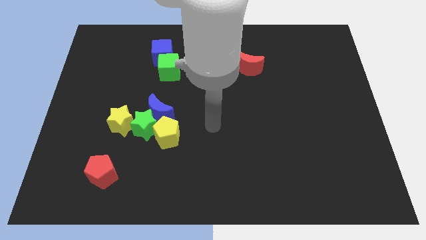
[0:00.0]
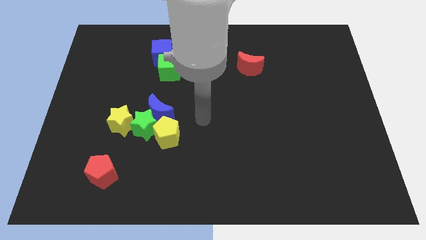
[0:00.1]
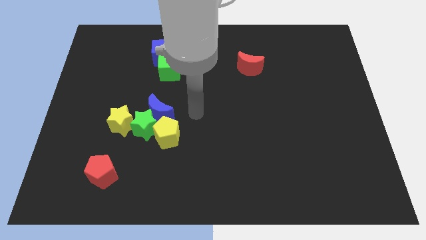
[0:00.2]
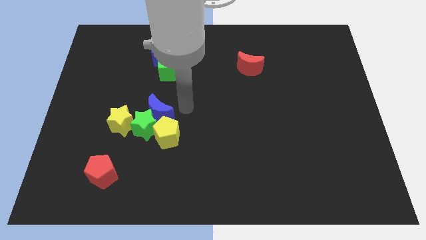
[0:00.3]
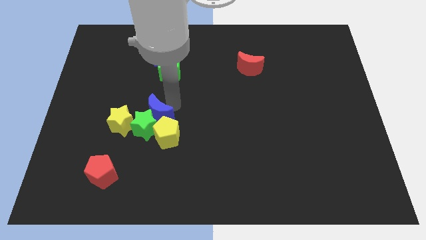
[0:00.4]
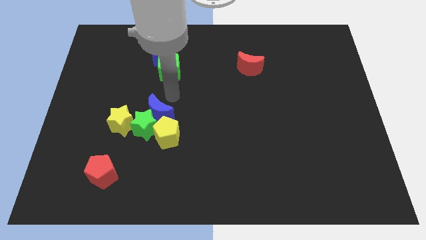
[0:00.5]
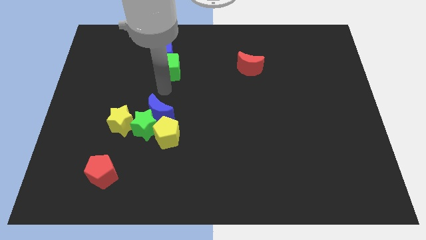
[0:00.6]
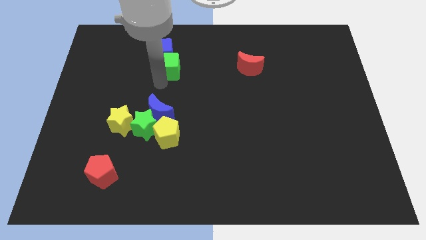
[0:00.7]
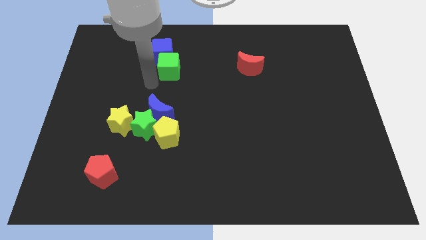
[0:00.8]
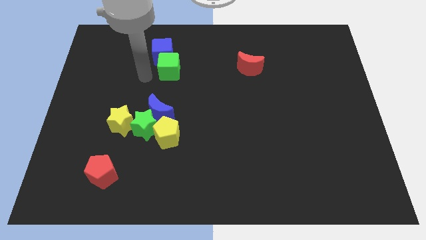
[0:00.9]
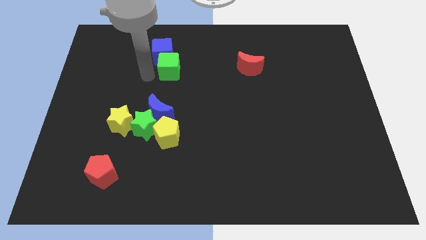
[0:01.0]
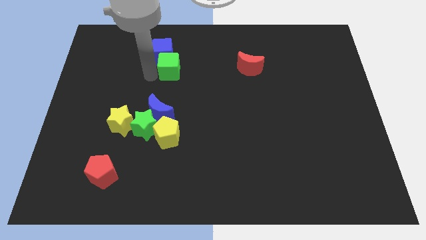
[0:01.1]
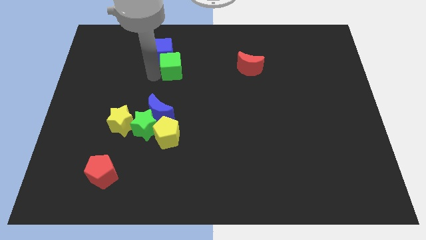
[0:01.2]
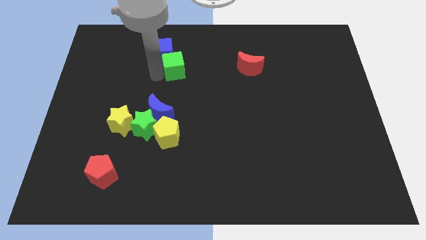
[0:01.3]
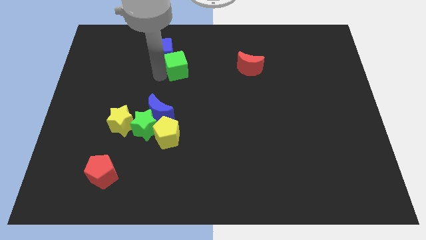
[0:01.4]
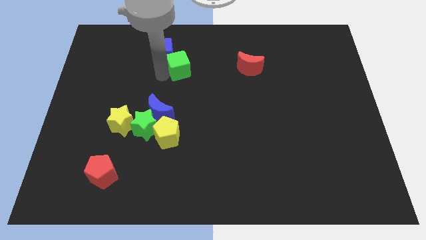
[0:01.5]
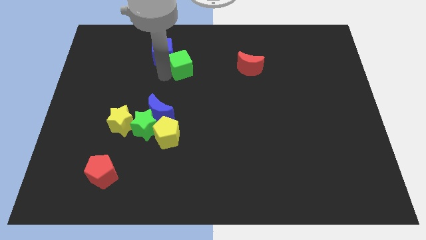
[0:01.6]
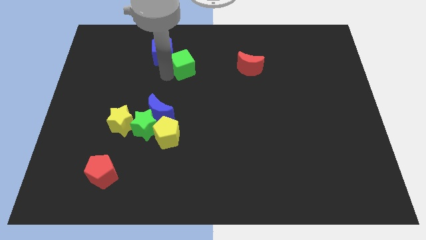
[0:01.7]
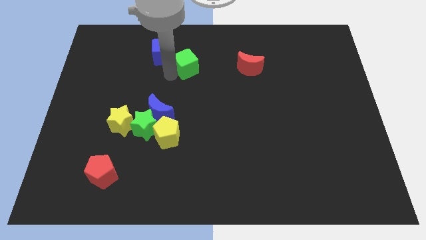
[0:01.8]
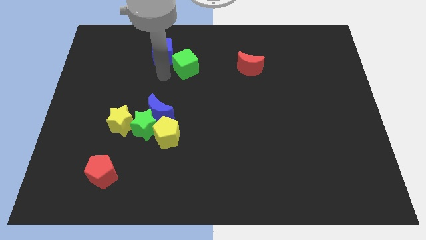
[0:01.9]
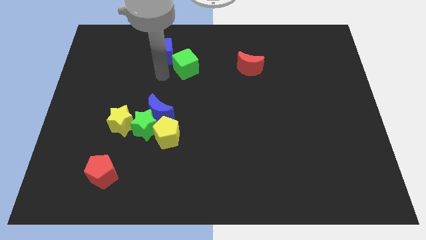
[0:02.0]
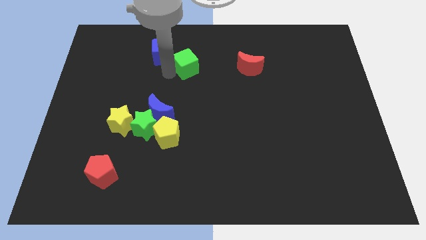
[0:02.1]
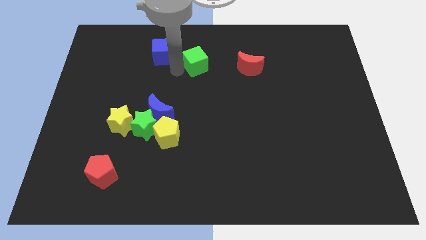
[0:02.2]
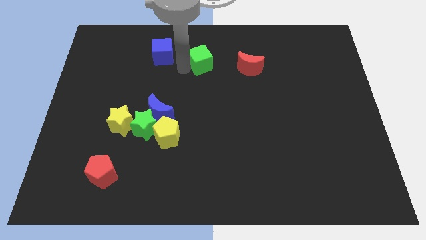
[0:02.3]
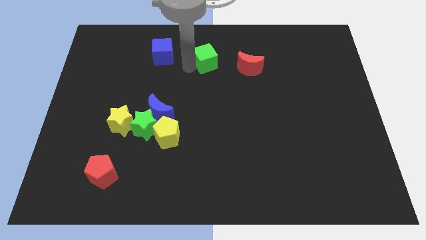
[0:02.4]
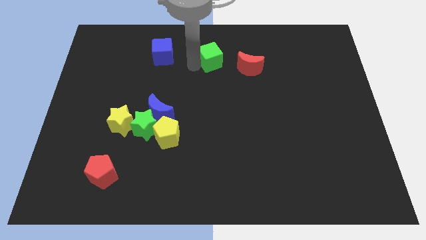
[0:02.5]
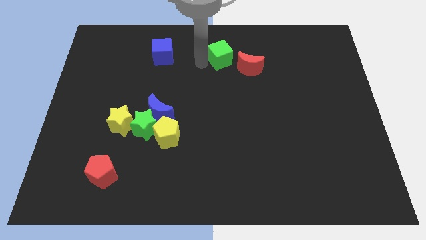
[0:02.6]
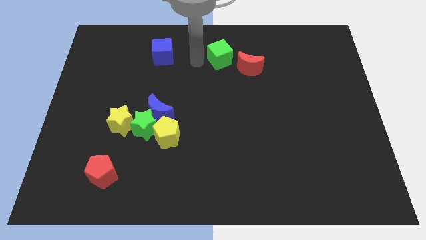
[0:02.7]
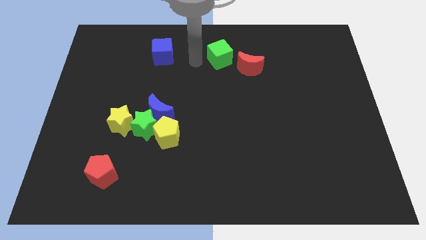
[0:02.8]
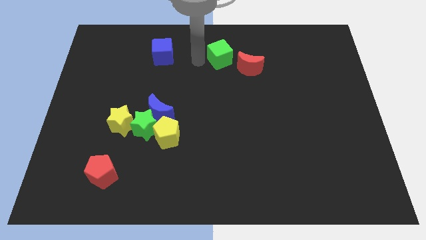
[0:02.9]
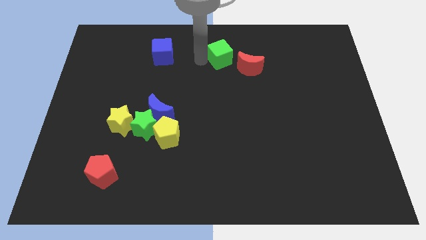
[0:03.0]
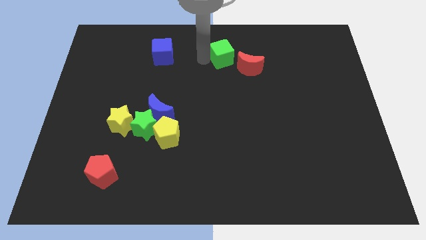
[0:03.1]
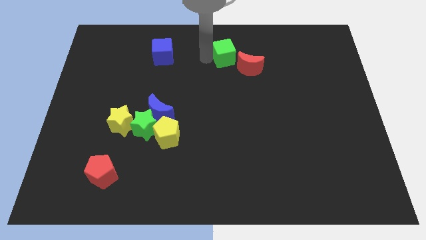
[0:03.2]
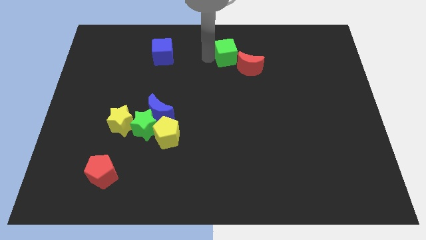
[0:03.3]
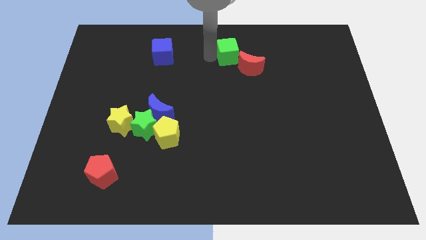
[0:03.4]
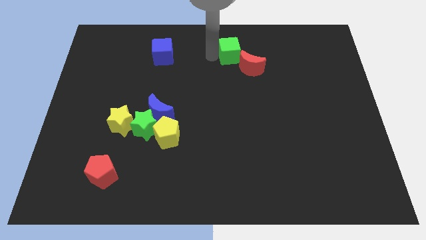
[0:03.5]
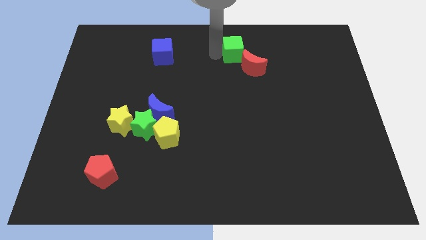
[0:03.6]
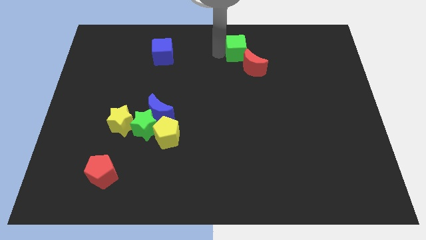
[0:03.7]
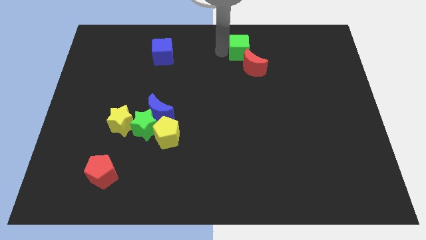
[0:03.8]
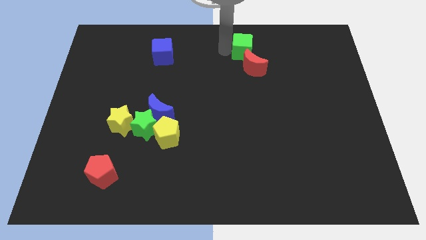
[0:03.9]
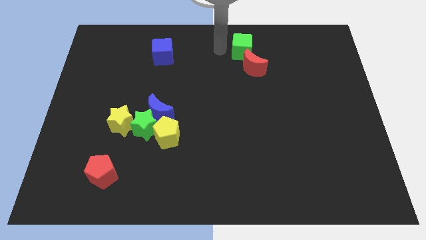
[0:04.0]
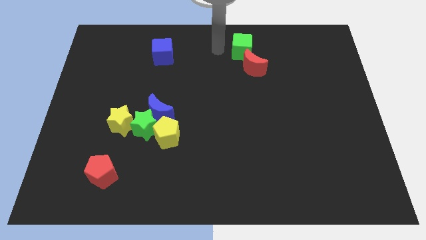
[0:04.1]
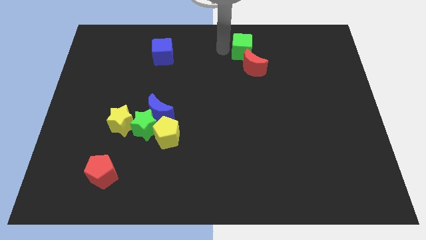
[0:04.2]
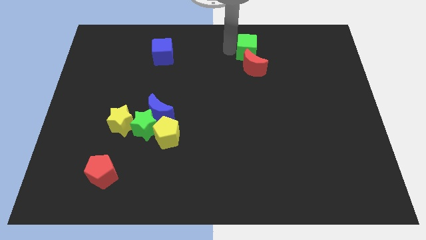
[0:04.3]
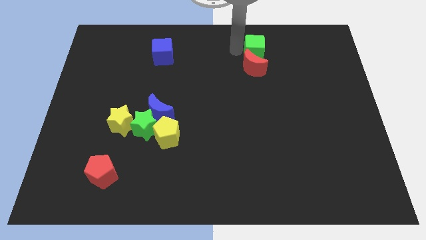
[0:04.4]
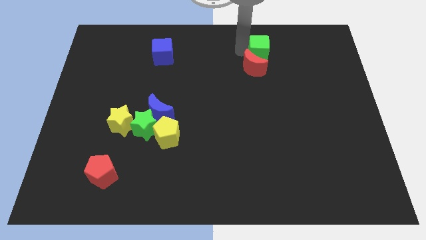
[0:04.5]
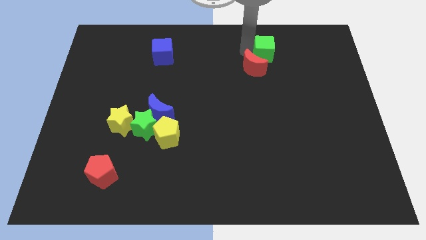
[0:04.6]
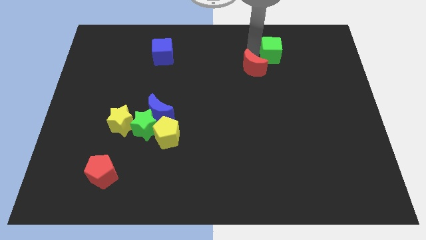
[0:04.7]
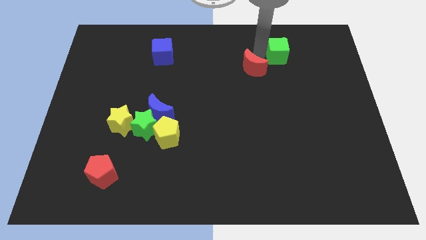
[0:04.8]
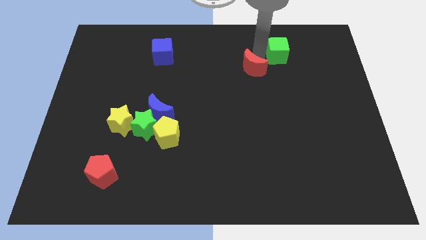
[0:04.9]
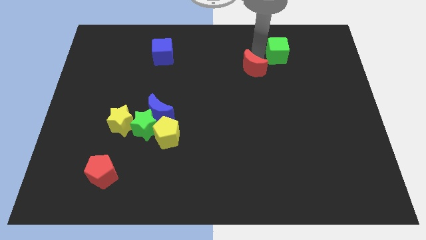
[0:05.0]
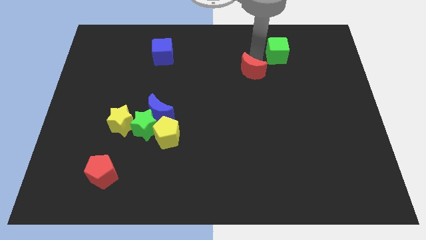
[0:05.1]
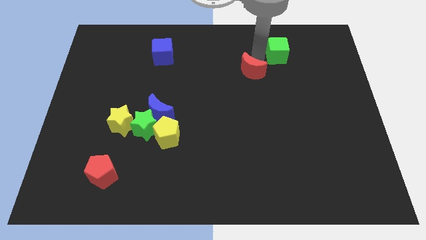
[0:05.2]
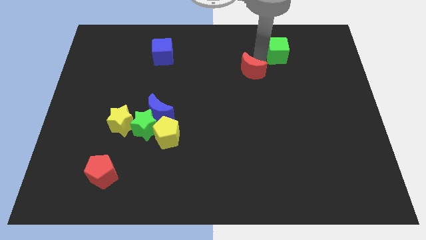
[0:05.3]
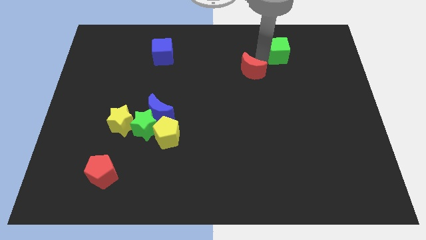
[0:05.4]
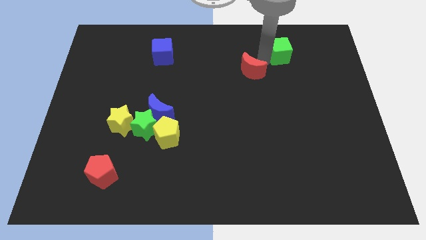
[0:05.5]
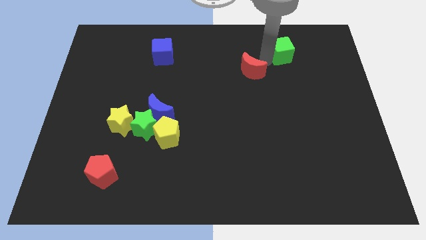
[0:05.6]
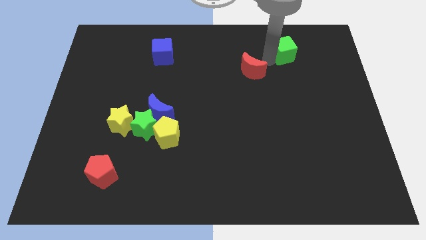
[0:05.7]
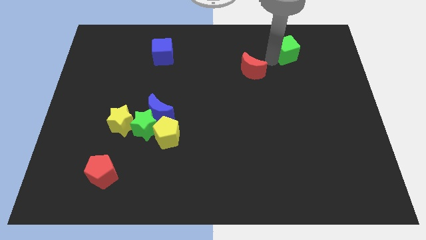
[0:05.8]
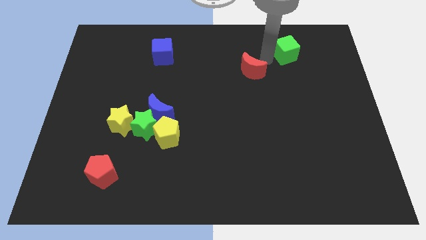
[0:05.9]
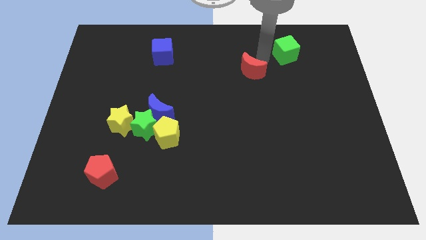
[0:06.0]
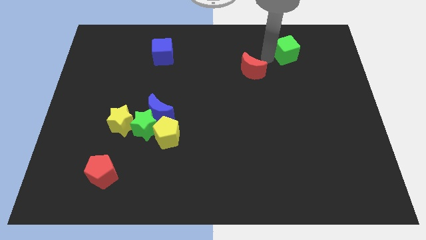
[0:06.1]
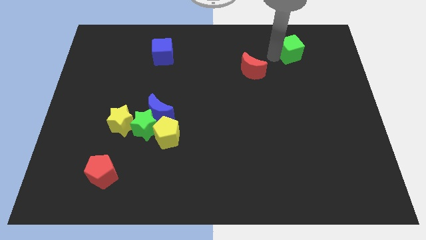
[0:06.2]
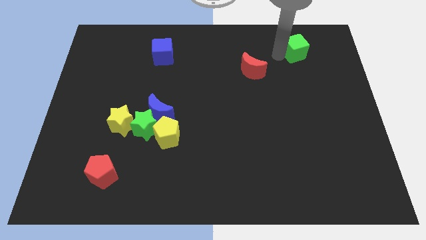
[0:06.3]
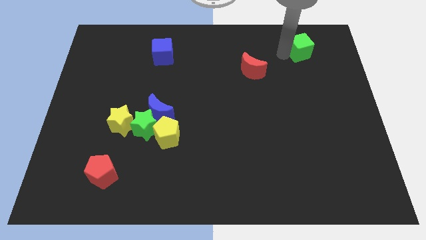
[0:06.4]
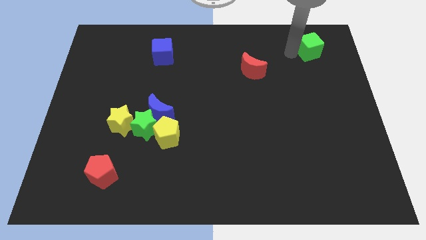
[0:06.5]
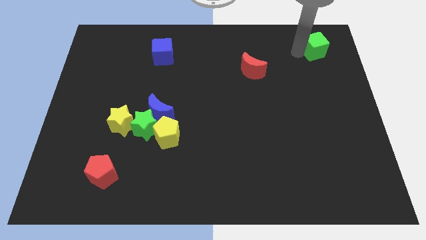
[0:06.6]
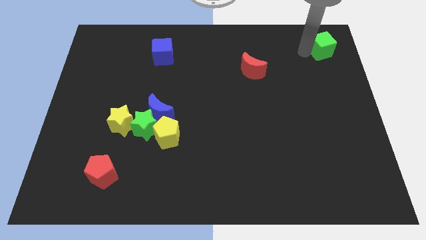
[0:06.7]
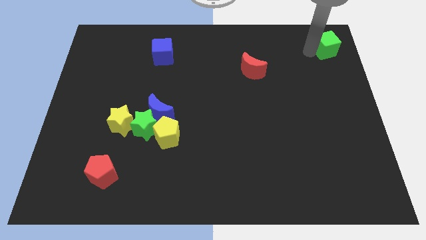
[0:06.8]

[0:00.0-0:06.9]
push the green cube to the upper right corner
